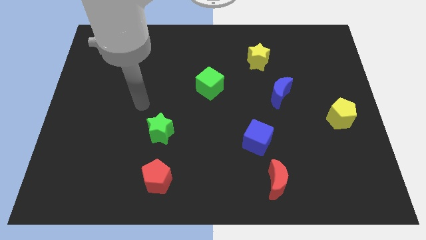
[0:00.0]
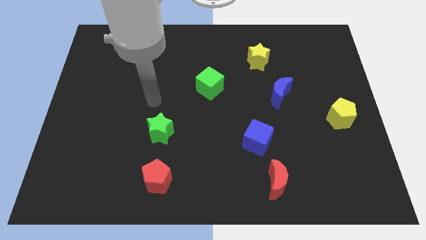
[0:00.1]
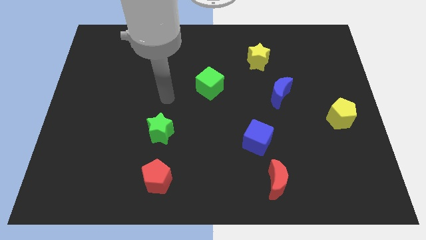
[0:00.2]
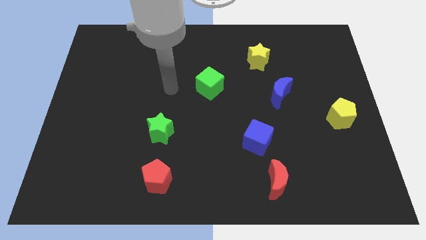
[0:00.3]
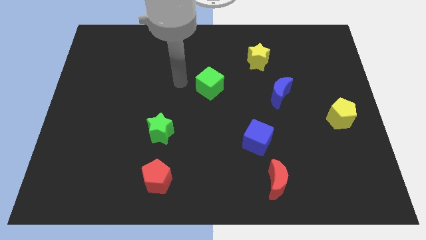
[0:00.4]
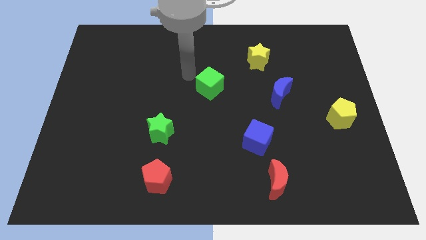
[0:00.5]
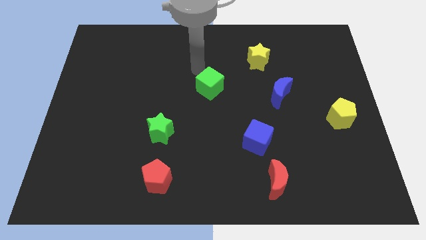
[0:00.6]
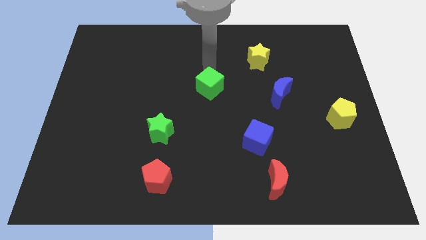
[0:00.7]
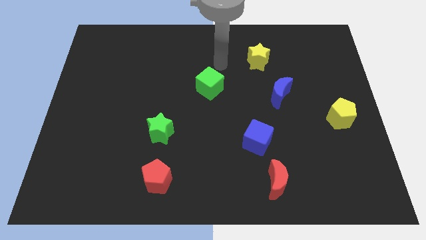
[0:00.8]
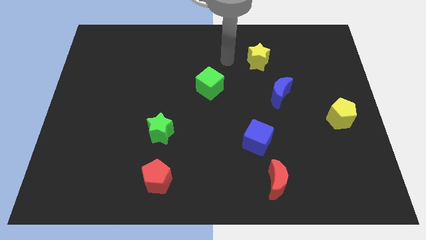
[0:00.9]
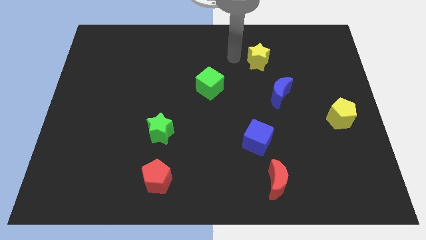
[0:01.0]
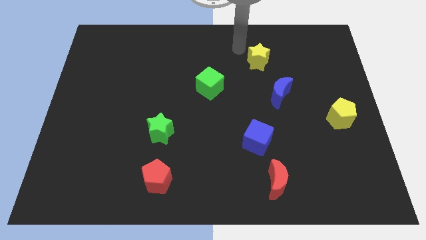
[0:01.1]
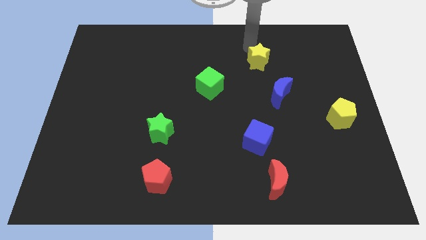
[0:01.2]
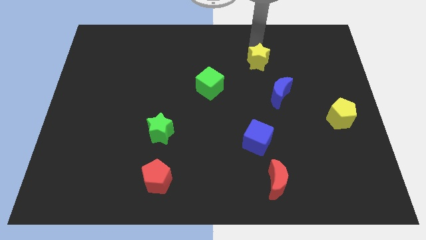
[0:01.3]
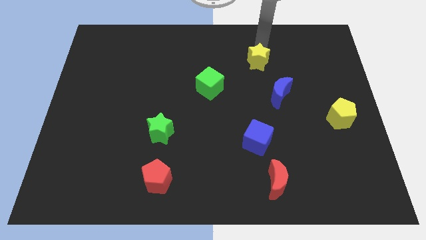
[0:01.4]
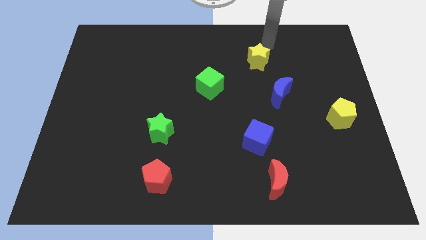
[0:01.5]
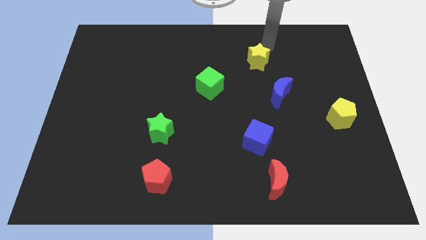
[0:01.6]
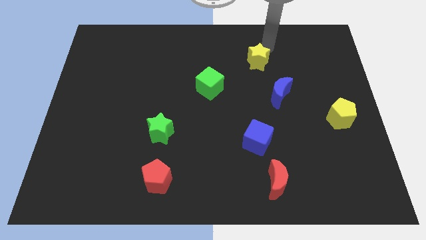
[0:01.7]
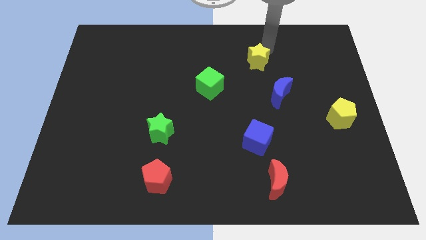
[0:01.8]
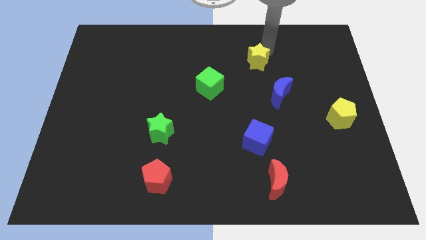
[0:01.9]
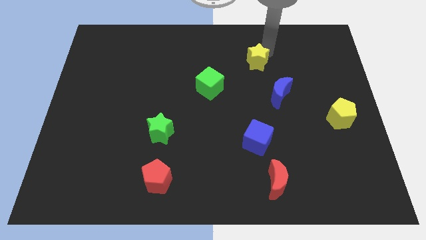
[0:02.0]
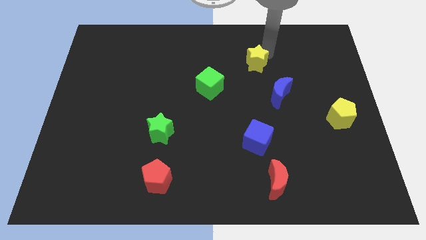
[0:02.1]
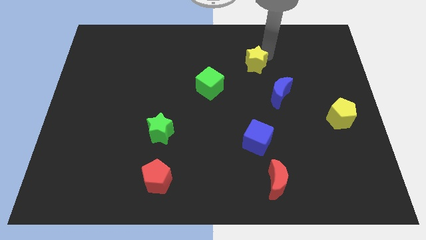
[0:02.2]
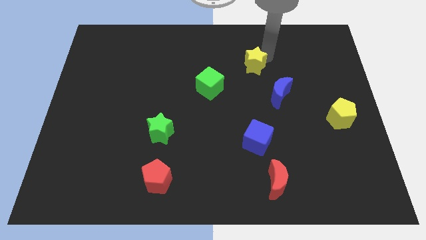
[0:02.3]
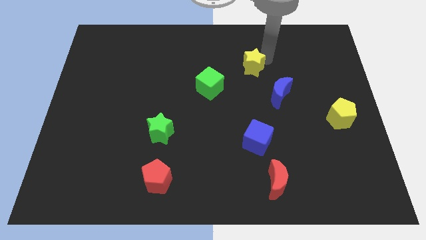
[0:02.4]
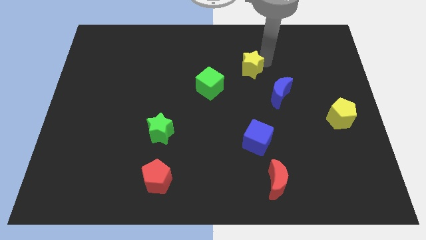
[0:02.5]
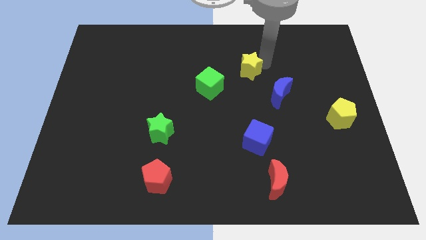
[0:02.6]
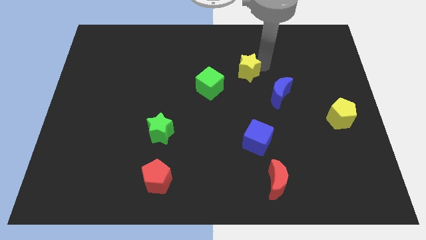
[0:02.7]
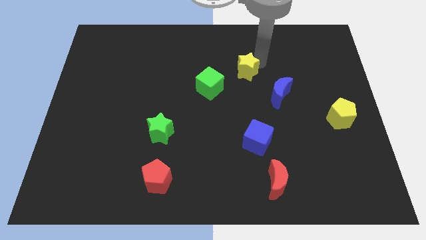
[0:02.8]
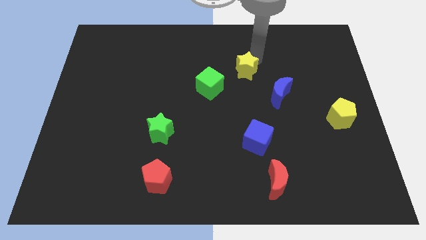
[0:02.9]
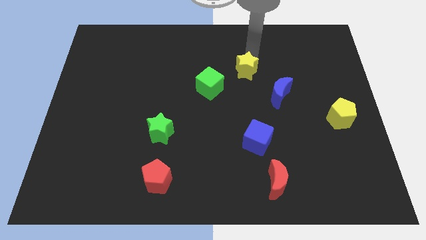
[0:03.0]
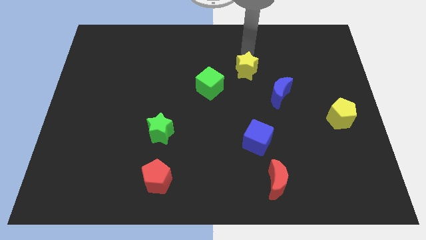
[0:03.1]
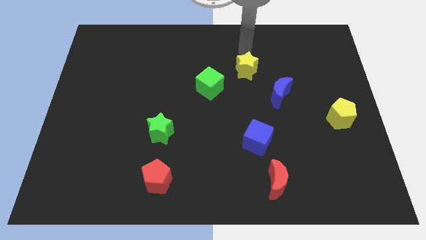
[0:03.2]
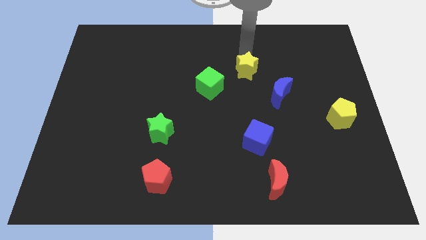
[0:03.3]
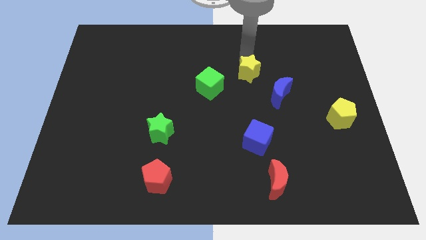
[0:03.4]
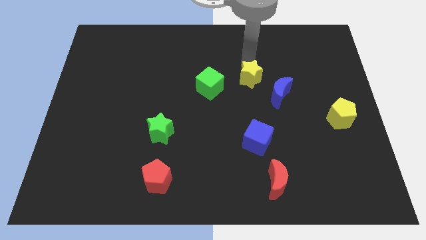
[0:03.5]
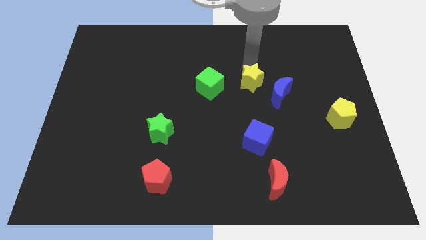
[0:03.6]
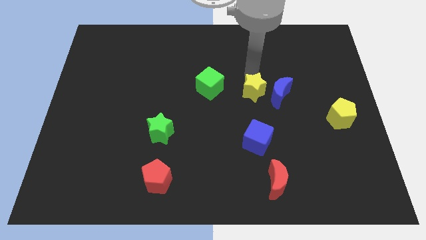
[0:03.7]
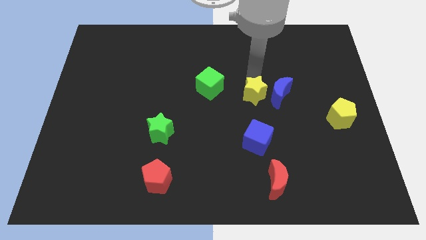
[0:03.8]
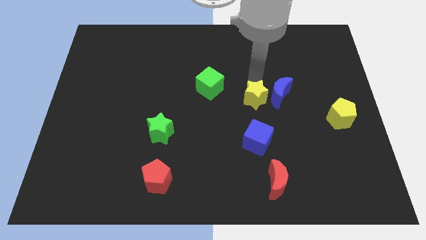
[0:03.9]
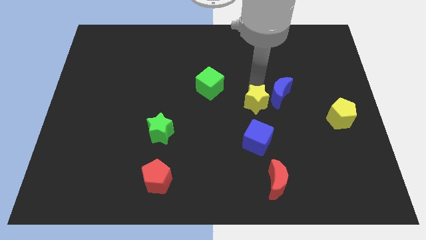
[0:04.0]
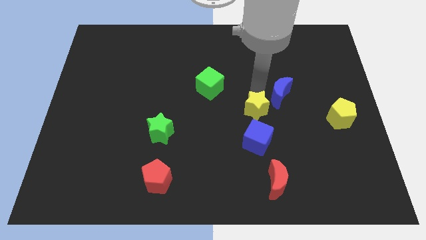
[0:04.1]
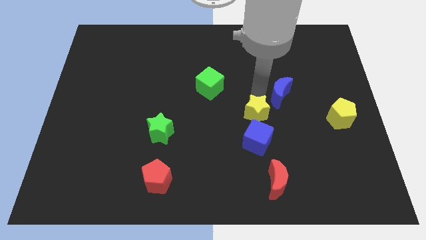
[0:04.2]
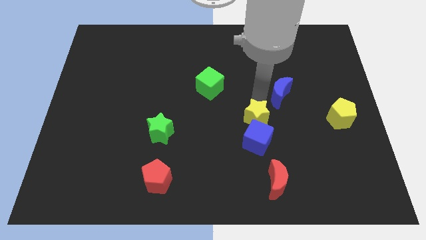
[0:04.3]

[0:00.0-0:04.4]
slide the yellow star next to the blue cube

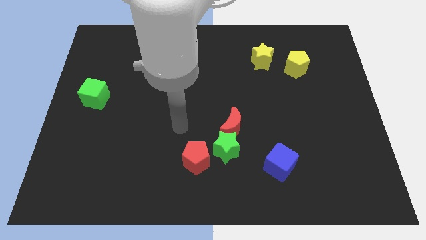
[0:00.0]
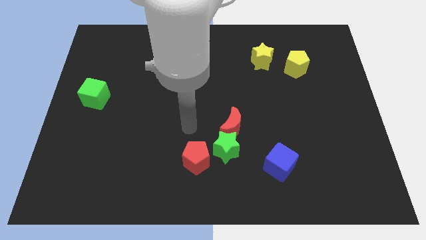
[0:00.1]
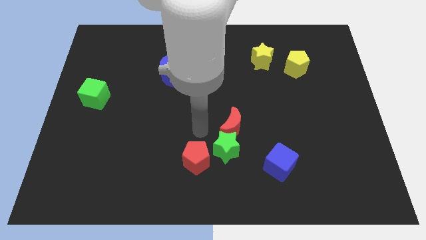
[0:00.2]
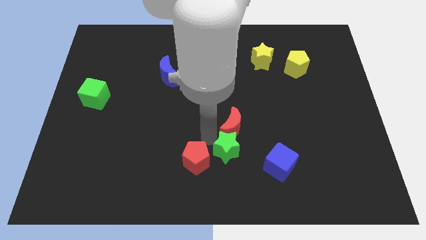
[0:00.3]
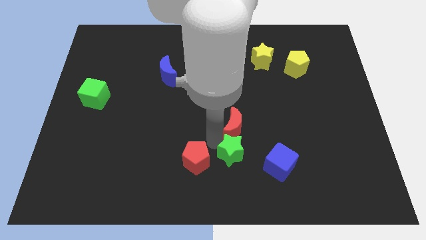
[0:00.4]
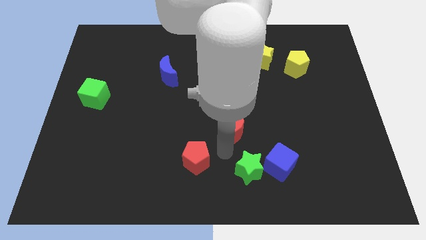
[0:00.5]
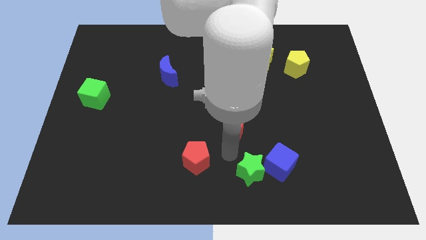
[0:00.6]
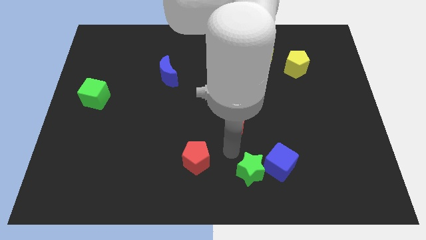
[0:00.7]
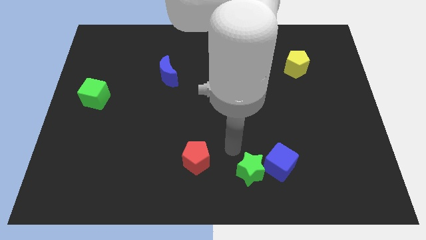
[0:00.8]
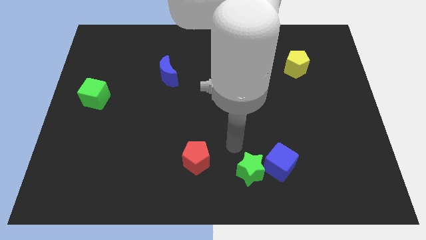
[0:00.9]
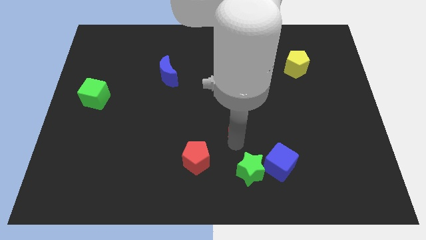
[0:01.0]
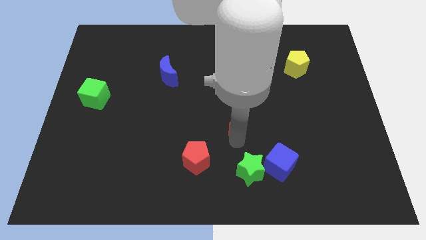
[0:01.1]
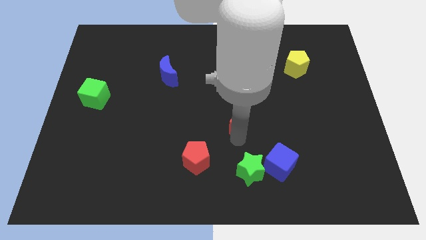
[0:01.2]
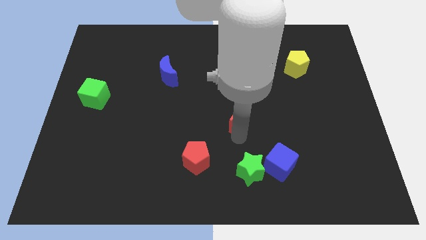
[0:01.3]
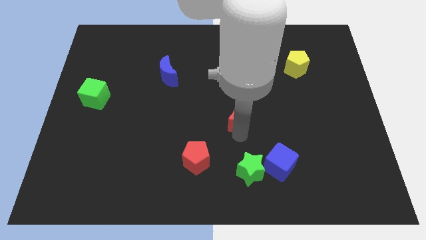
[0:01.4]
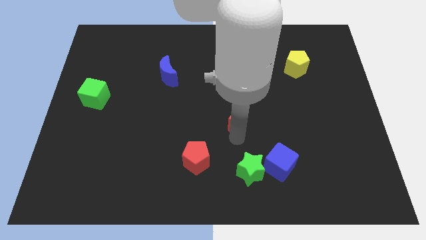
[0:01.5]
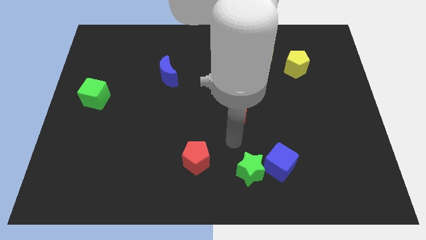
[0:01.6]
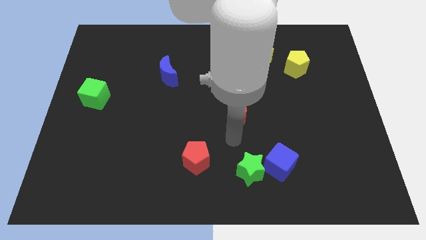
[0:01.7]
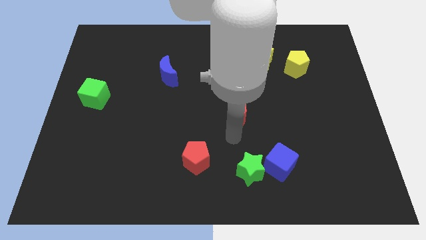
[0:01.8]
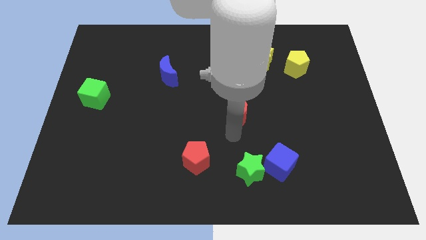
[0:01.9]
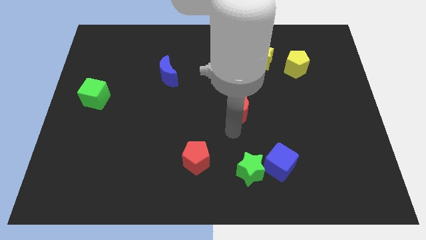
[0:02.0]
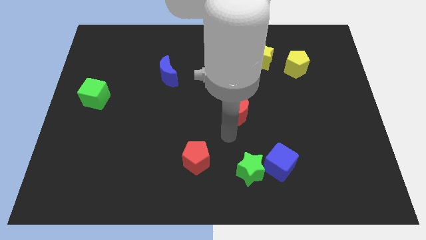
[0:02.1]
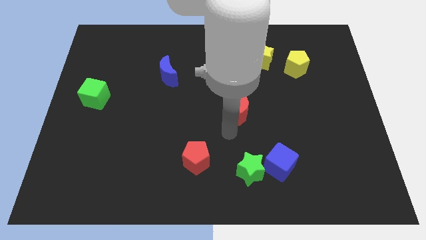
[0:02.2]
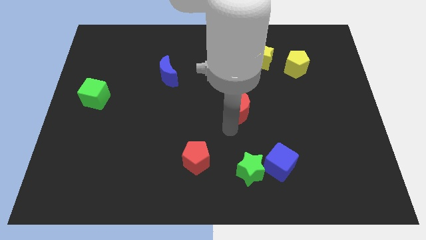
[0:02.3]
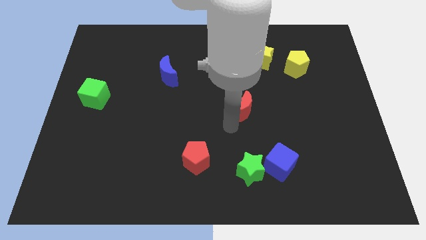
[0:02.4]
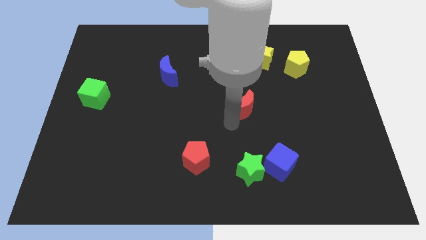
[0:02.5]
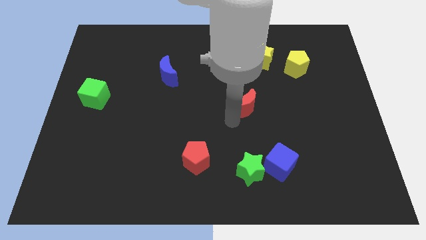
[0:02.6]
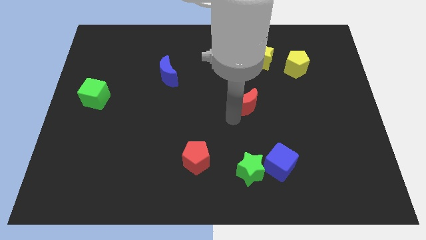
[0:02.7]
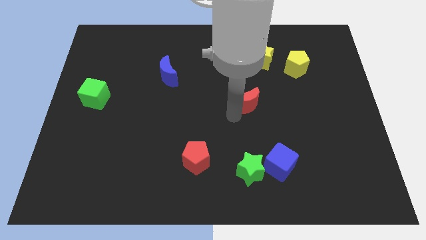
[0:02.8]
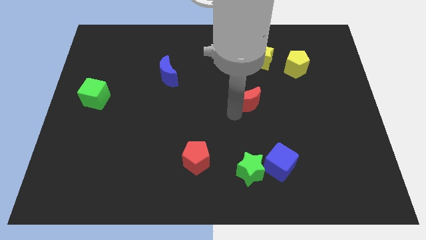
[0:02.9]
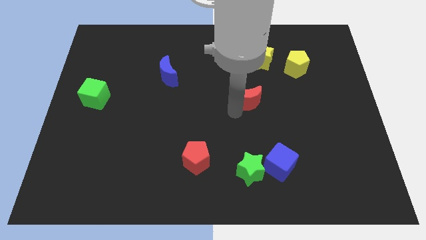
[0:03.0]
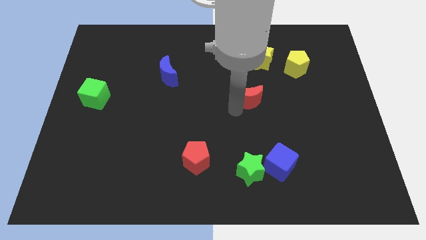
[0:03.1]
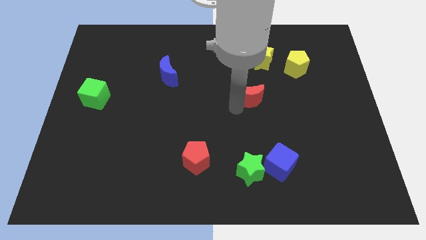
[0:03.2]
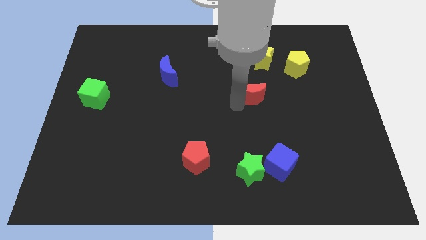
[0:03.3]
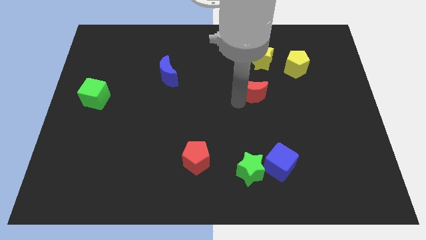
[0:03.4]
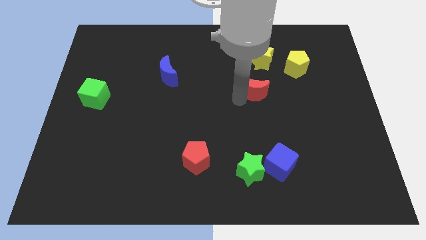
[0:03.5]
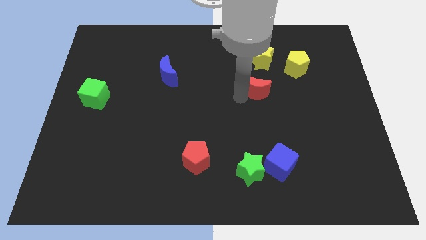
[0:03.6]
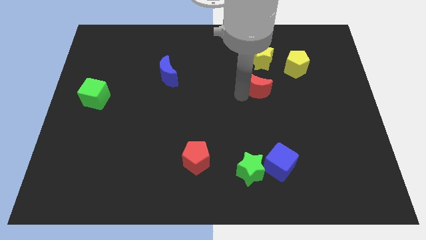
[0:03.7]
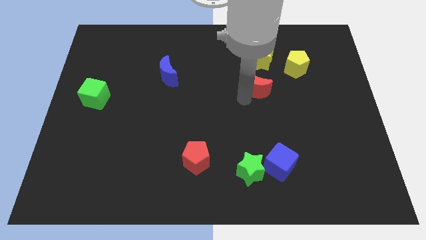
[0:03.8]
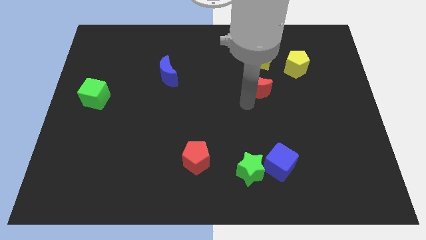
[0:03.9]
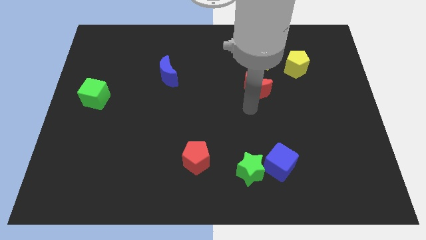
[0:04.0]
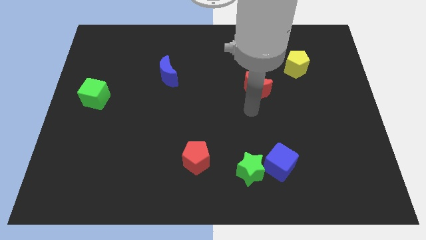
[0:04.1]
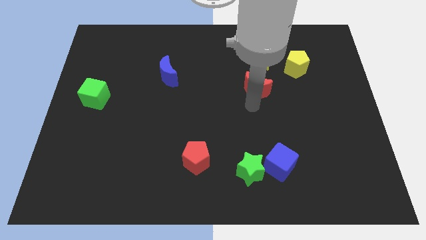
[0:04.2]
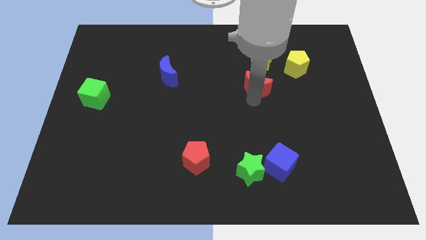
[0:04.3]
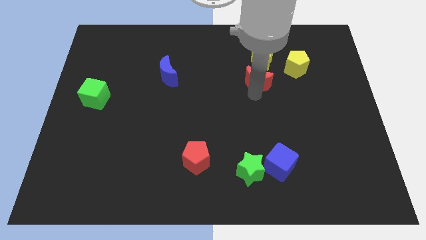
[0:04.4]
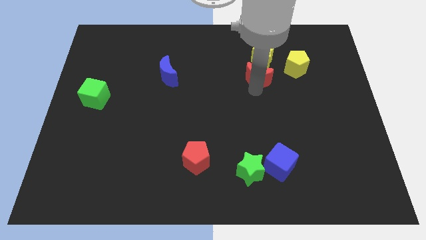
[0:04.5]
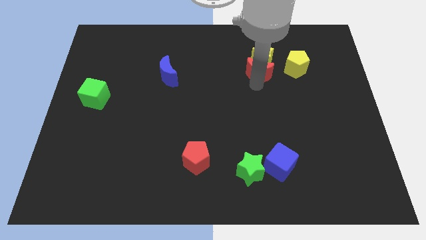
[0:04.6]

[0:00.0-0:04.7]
push the red moon to the yellow star
